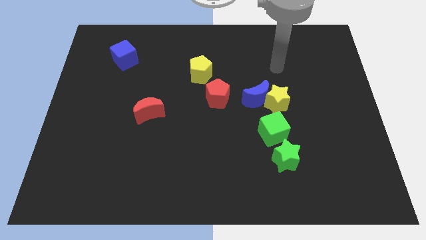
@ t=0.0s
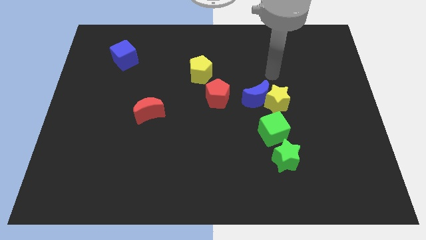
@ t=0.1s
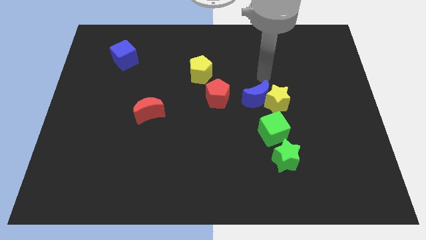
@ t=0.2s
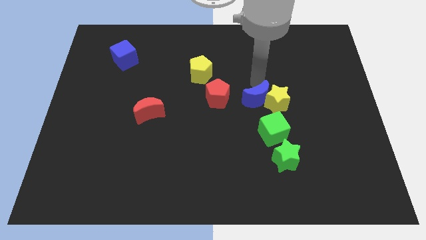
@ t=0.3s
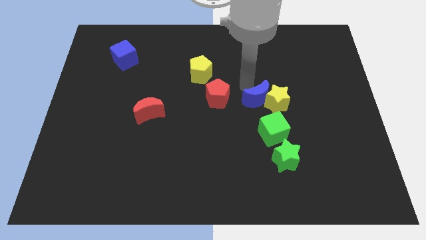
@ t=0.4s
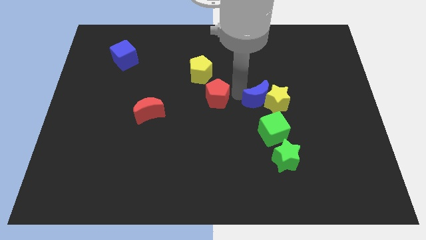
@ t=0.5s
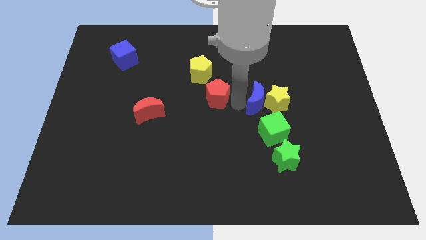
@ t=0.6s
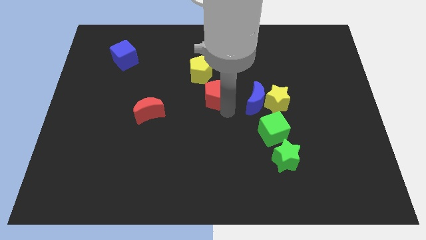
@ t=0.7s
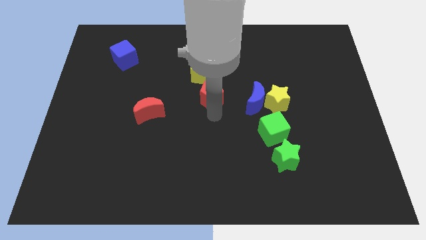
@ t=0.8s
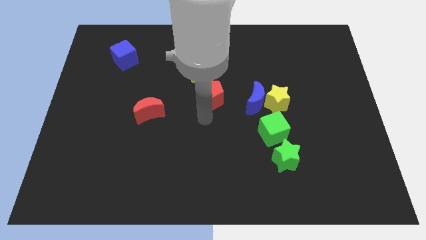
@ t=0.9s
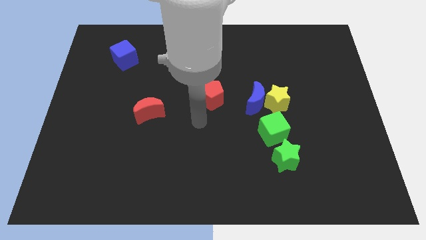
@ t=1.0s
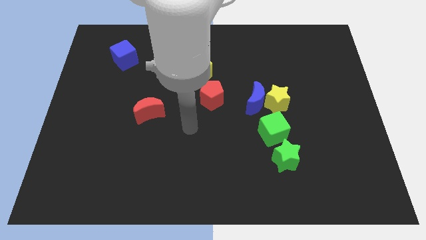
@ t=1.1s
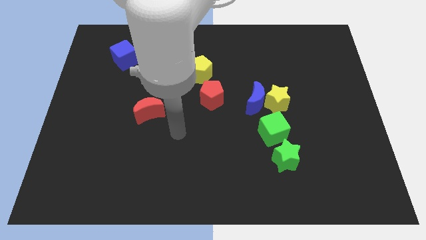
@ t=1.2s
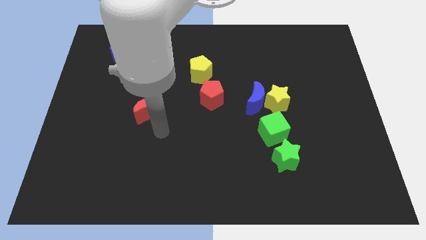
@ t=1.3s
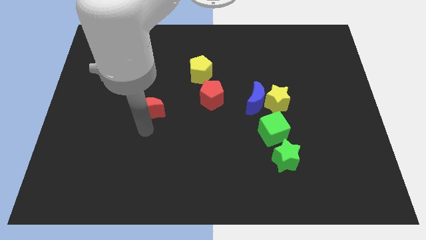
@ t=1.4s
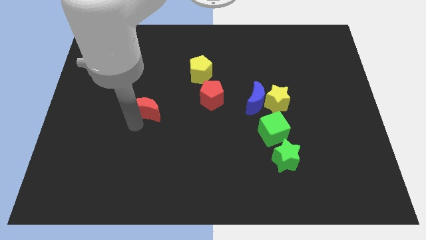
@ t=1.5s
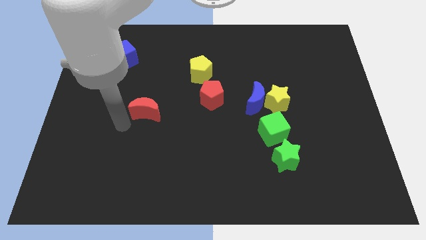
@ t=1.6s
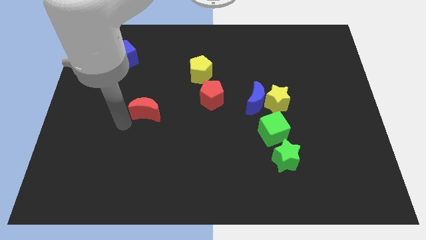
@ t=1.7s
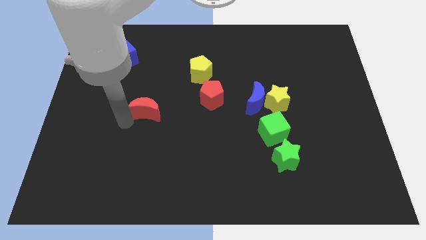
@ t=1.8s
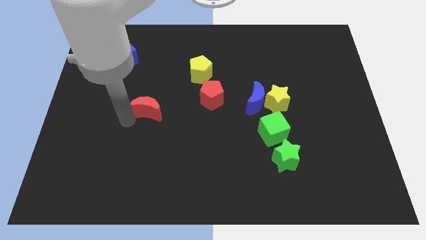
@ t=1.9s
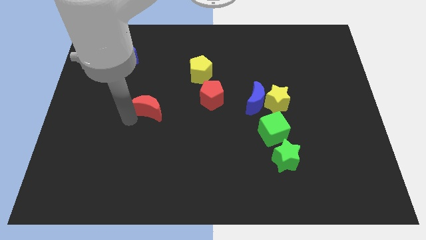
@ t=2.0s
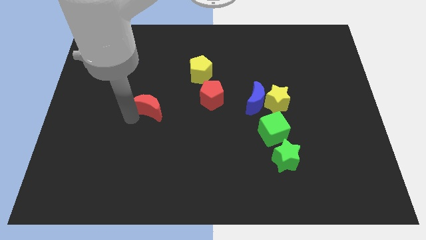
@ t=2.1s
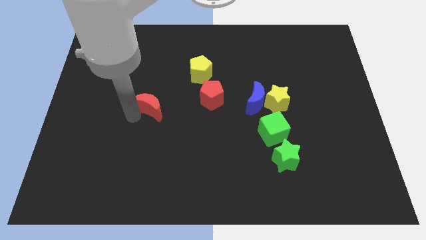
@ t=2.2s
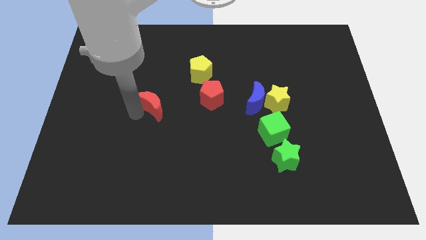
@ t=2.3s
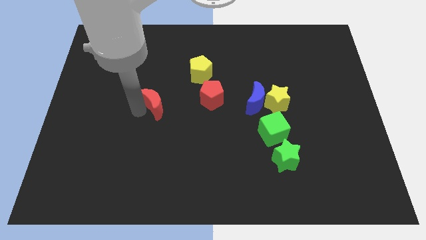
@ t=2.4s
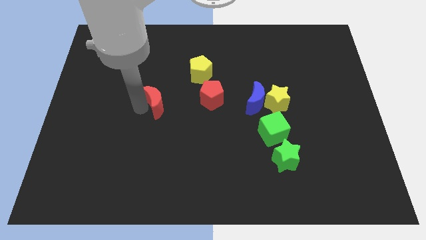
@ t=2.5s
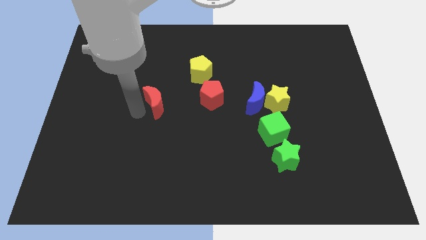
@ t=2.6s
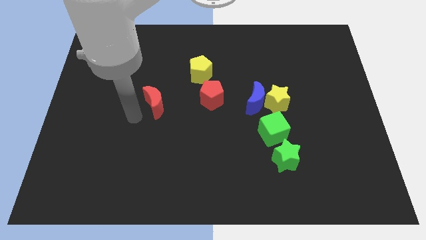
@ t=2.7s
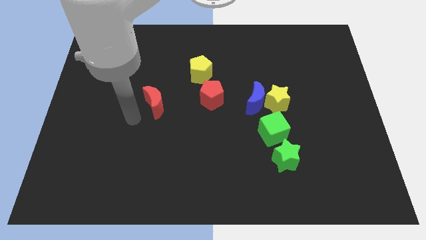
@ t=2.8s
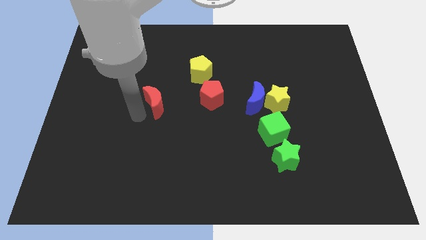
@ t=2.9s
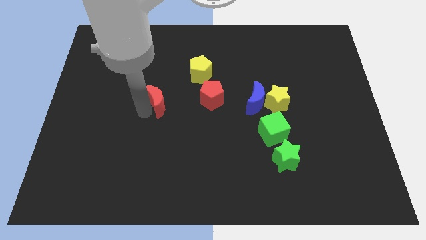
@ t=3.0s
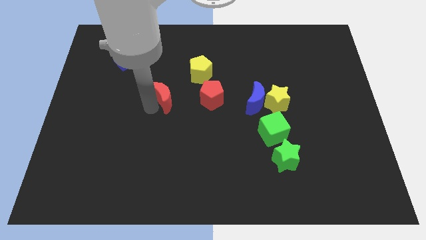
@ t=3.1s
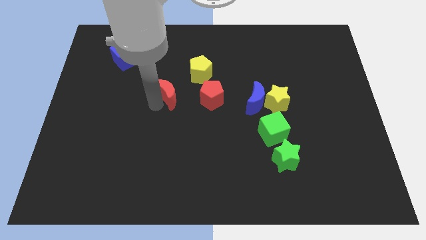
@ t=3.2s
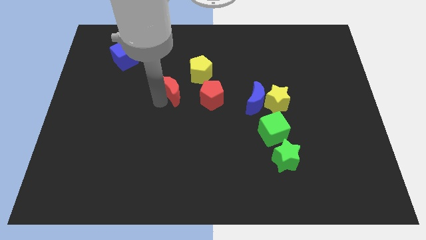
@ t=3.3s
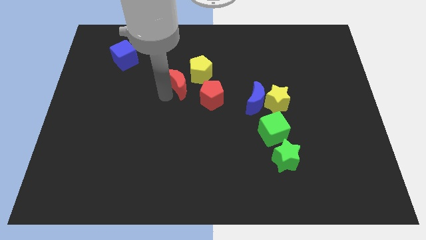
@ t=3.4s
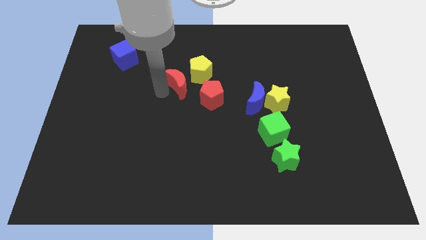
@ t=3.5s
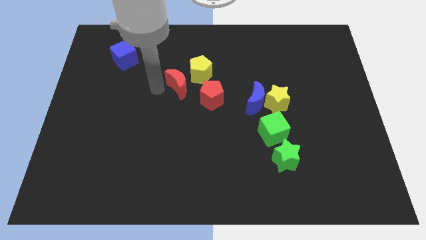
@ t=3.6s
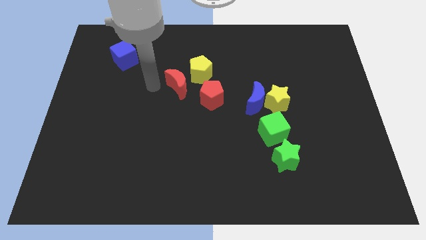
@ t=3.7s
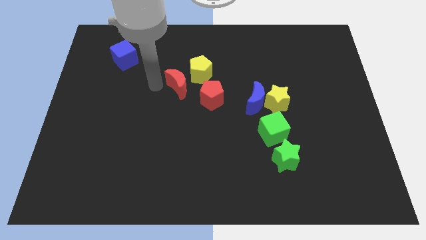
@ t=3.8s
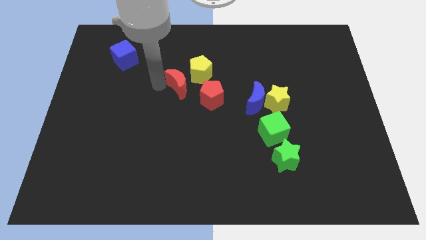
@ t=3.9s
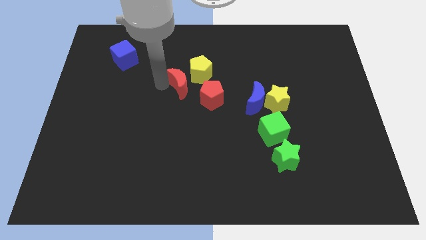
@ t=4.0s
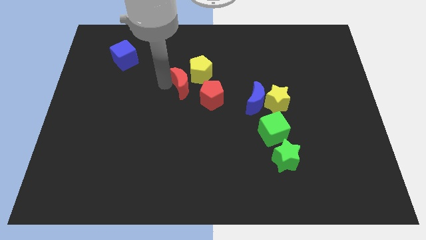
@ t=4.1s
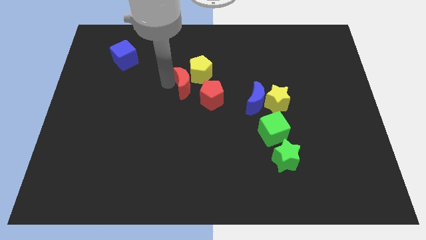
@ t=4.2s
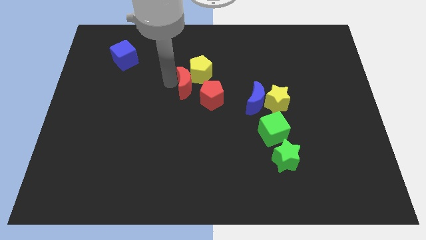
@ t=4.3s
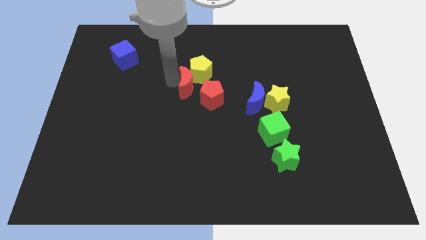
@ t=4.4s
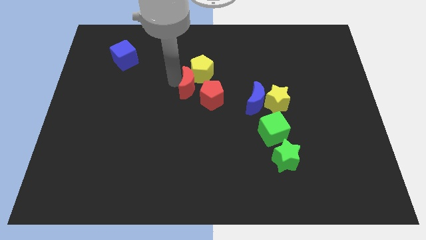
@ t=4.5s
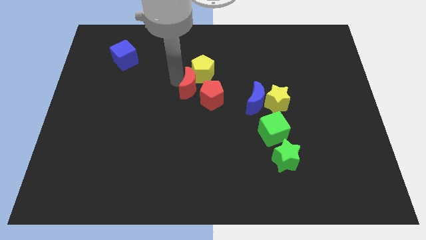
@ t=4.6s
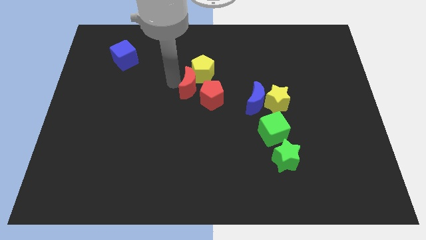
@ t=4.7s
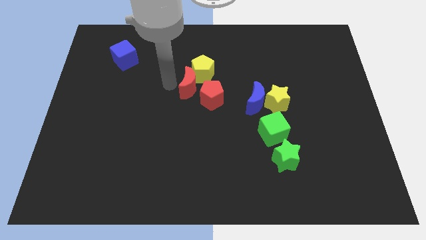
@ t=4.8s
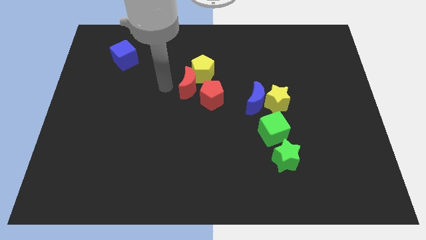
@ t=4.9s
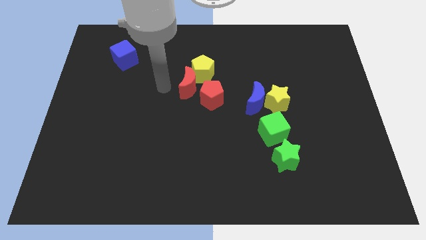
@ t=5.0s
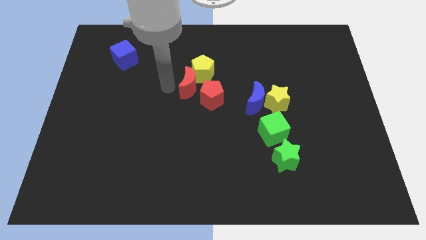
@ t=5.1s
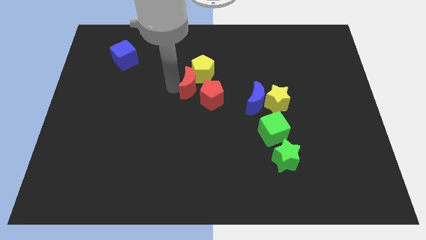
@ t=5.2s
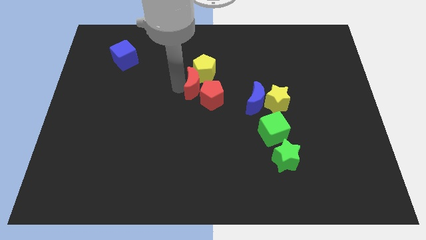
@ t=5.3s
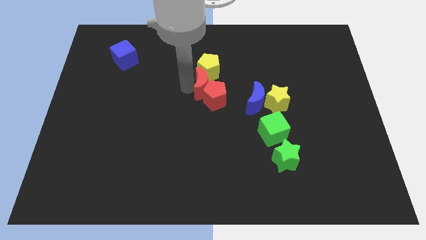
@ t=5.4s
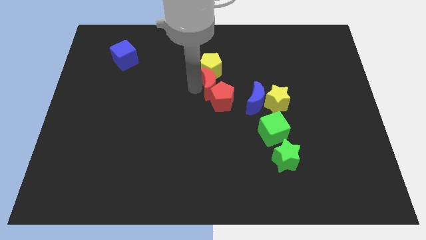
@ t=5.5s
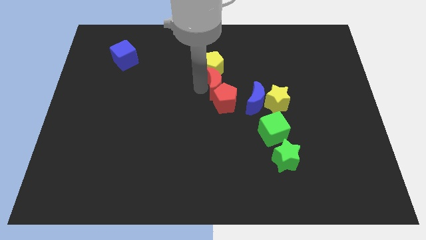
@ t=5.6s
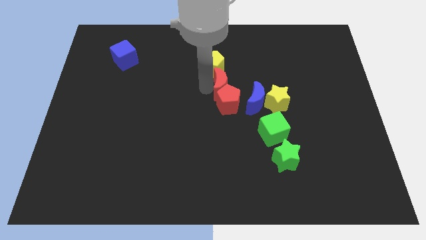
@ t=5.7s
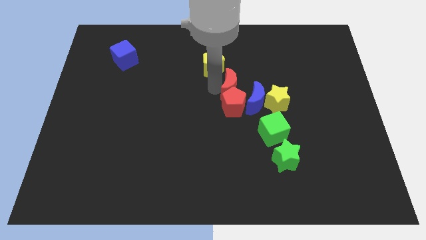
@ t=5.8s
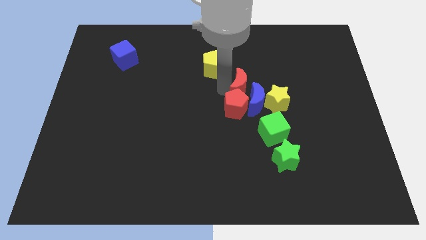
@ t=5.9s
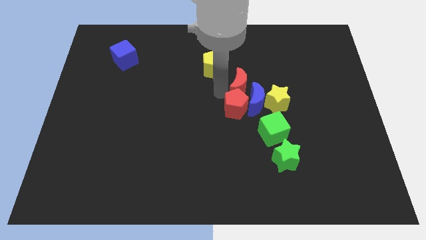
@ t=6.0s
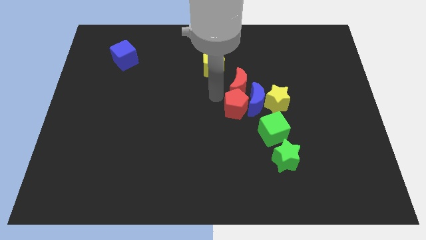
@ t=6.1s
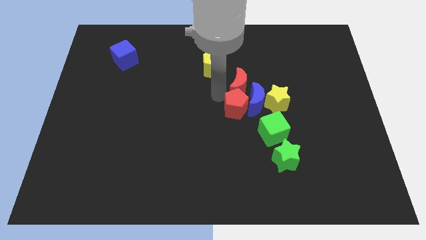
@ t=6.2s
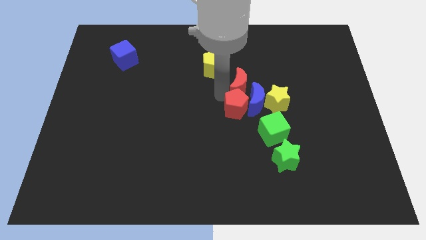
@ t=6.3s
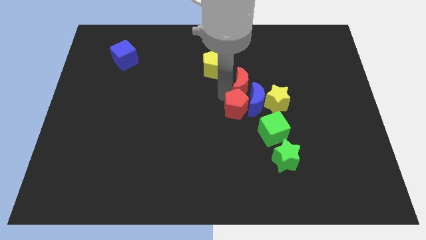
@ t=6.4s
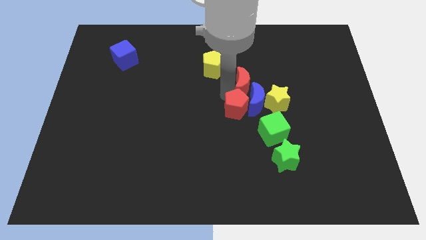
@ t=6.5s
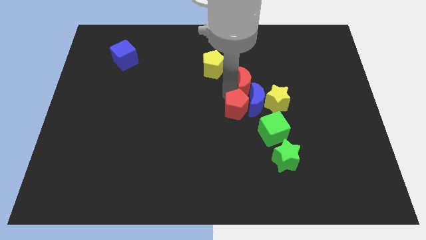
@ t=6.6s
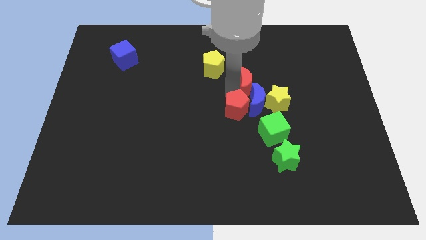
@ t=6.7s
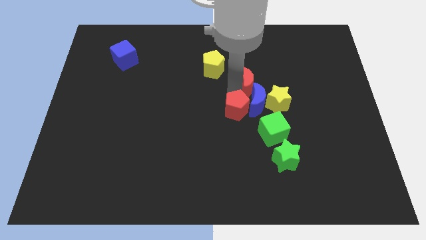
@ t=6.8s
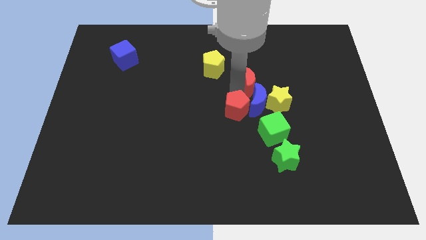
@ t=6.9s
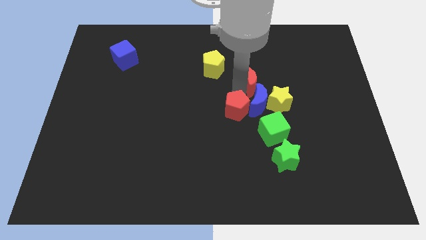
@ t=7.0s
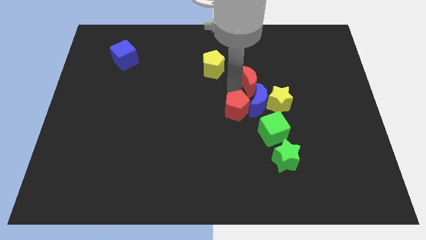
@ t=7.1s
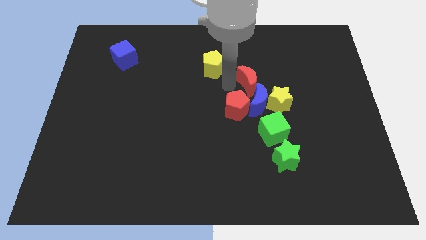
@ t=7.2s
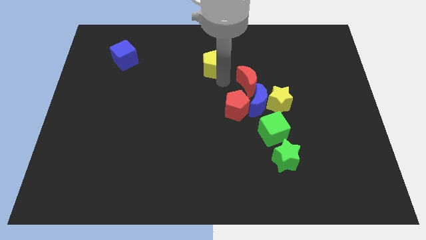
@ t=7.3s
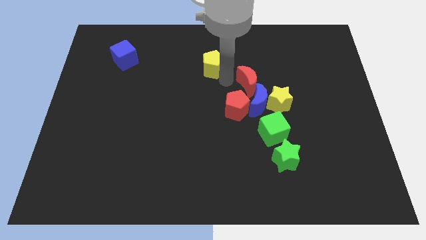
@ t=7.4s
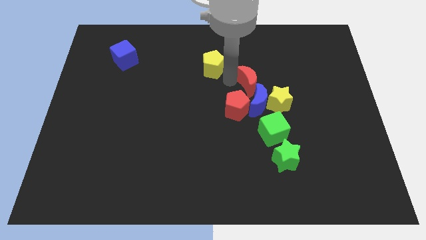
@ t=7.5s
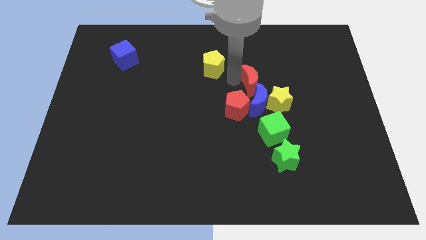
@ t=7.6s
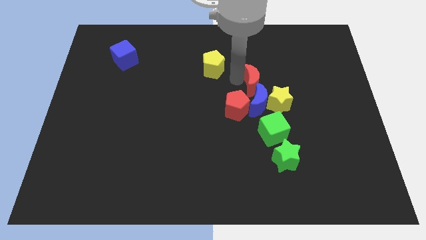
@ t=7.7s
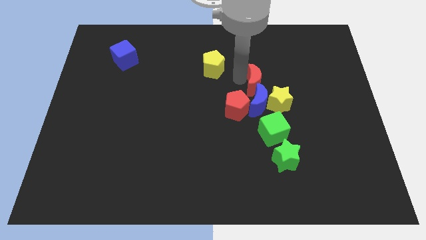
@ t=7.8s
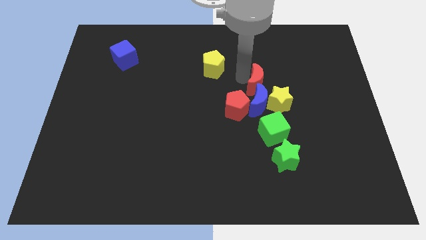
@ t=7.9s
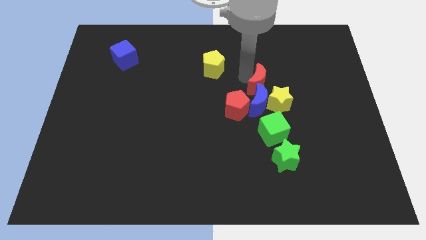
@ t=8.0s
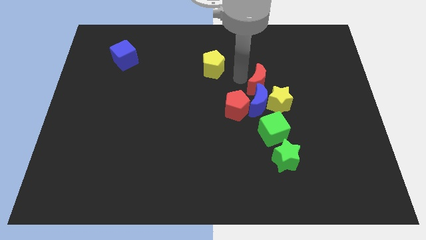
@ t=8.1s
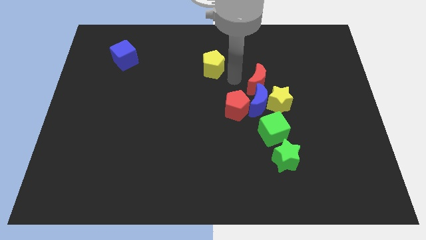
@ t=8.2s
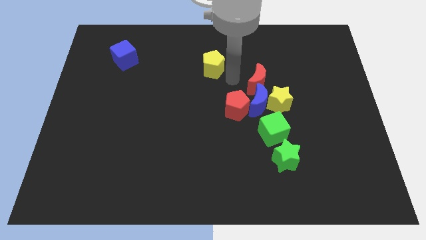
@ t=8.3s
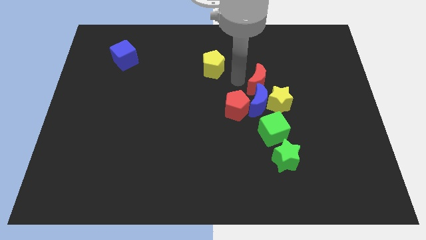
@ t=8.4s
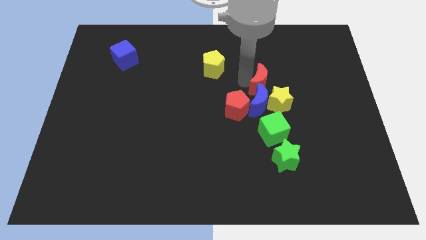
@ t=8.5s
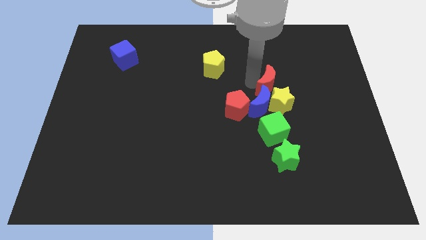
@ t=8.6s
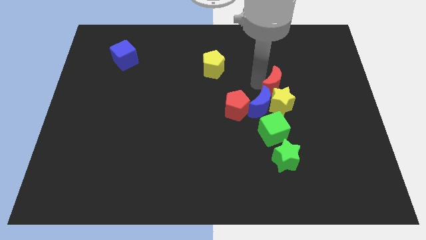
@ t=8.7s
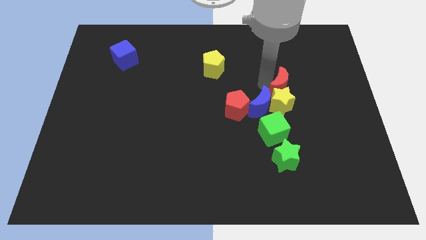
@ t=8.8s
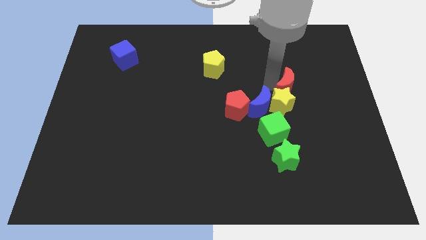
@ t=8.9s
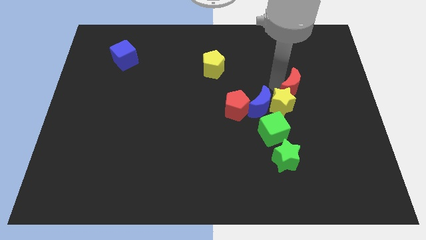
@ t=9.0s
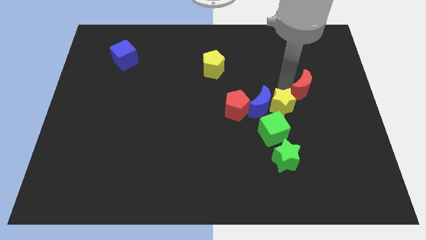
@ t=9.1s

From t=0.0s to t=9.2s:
move the red moon right of the yellow star
